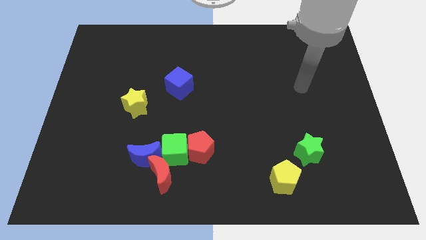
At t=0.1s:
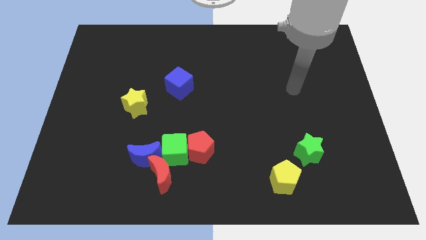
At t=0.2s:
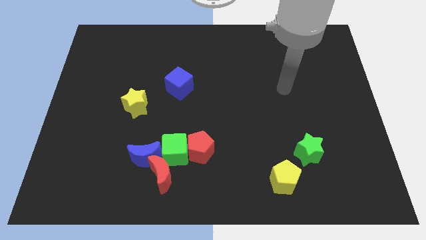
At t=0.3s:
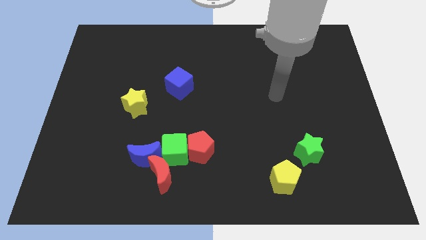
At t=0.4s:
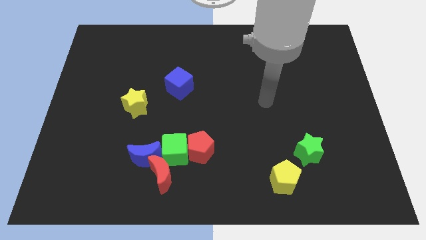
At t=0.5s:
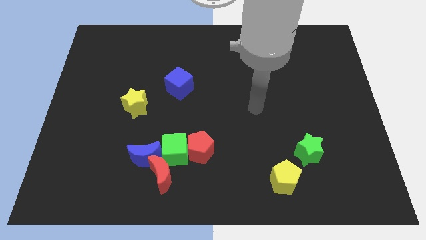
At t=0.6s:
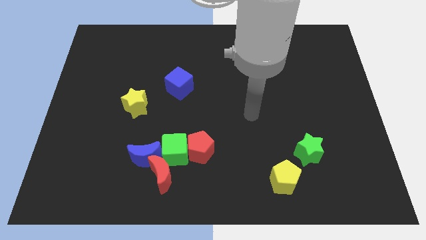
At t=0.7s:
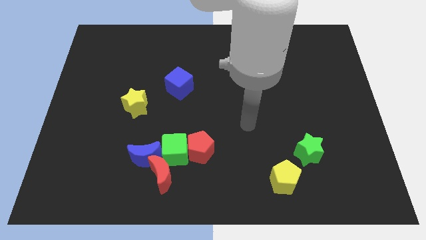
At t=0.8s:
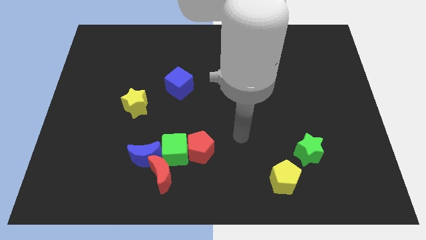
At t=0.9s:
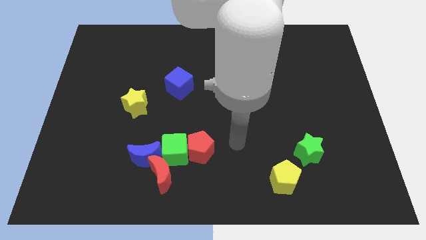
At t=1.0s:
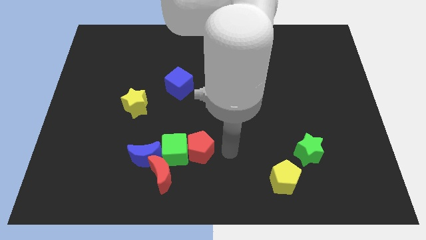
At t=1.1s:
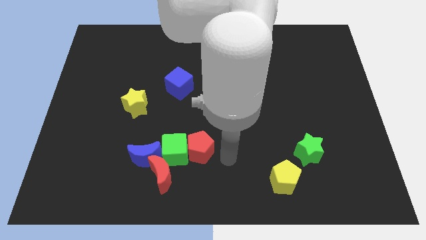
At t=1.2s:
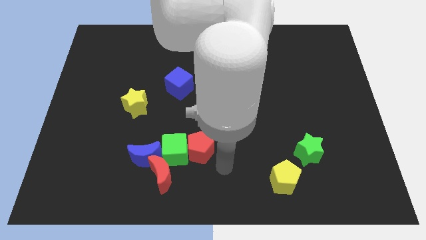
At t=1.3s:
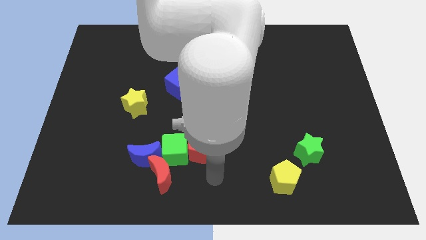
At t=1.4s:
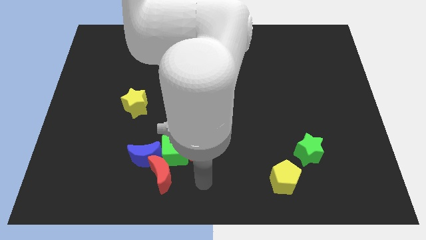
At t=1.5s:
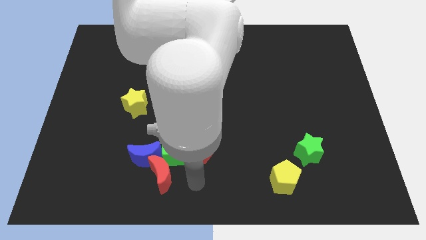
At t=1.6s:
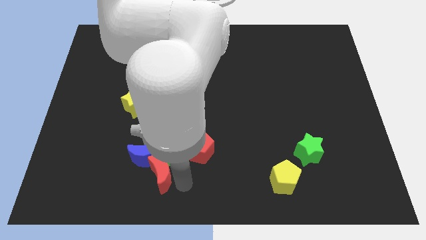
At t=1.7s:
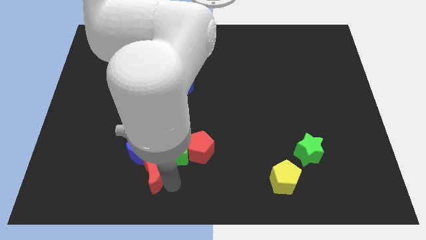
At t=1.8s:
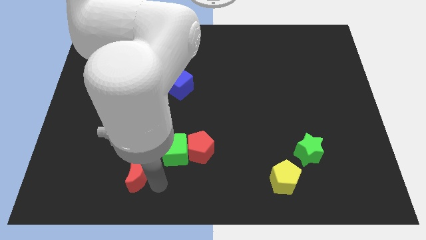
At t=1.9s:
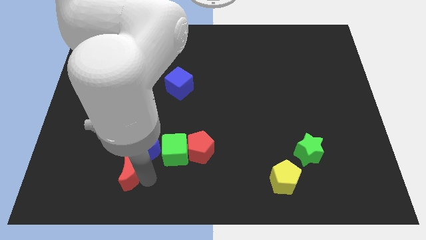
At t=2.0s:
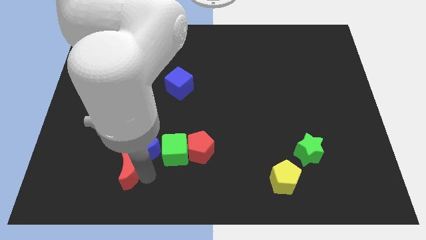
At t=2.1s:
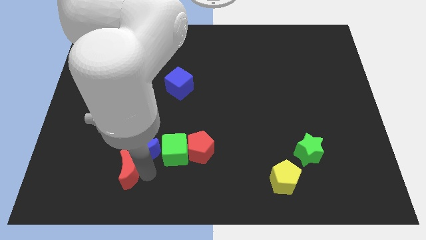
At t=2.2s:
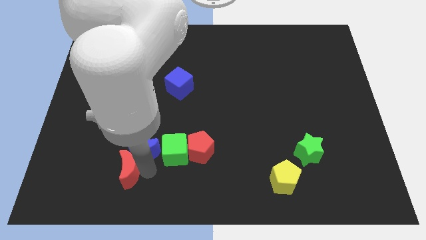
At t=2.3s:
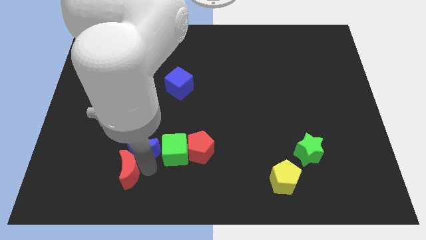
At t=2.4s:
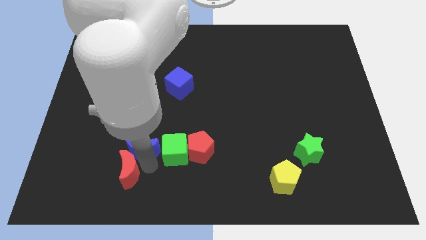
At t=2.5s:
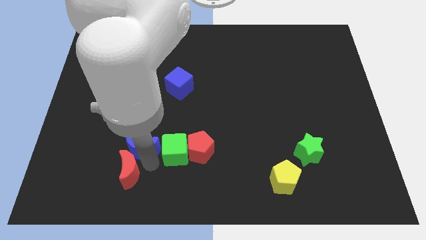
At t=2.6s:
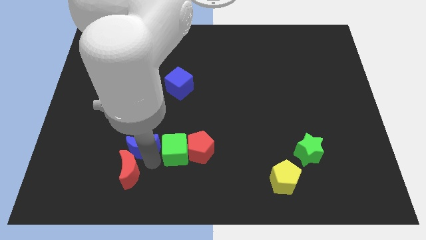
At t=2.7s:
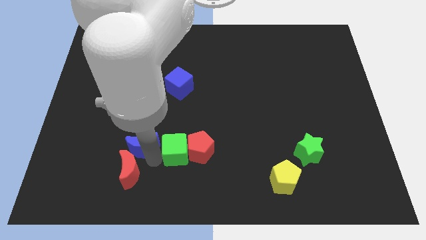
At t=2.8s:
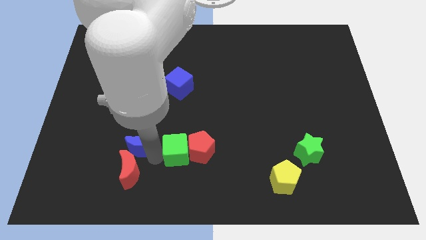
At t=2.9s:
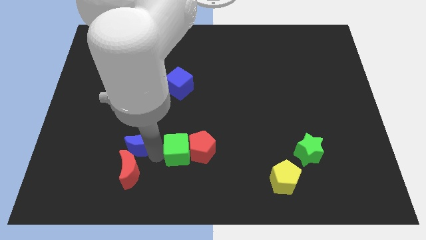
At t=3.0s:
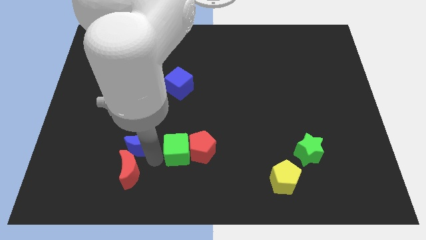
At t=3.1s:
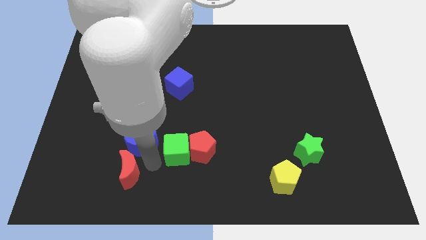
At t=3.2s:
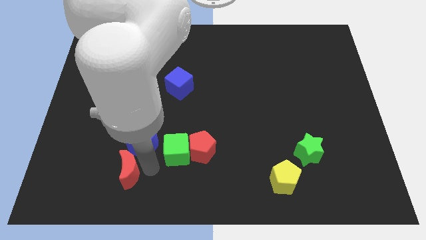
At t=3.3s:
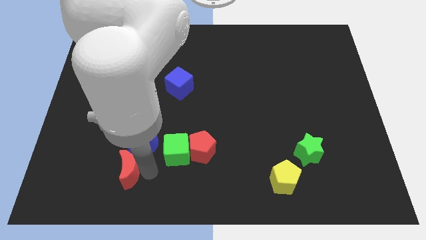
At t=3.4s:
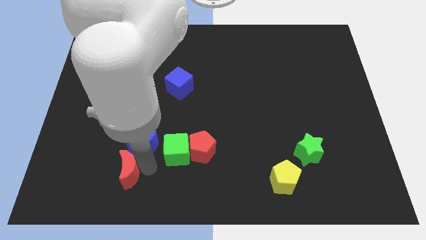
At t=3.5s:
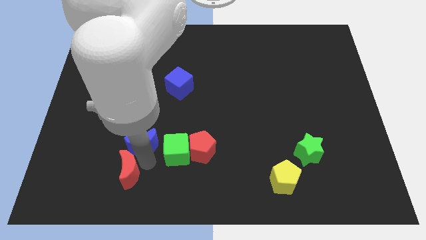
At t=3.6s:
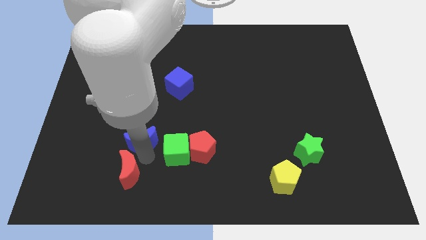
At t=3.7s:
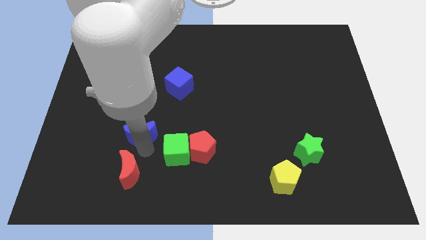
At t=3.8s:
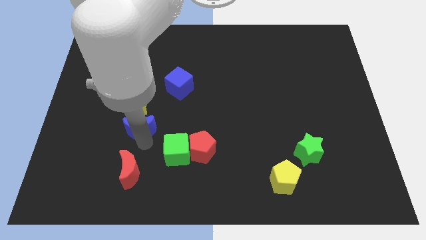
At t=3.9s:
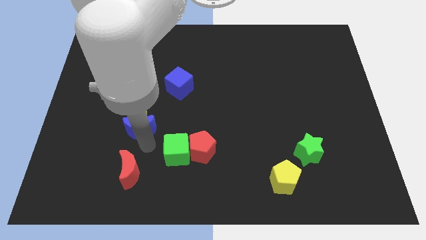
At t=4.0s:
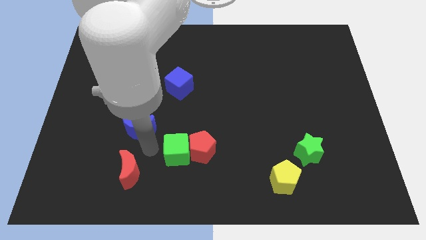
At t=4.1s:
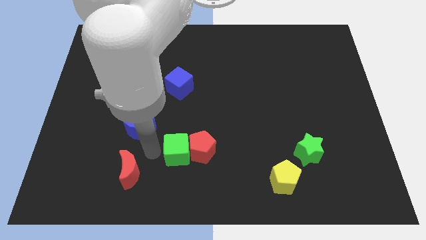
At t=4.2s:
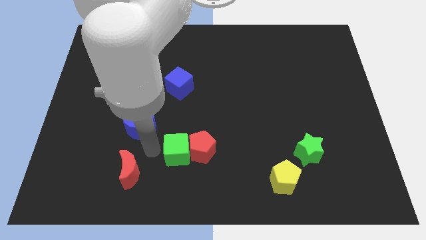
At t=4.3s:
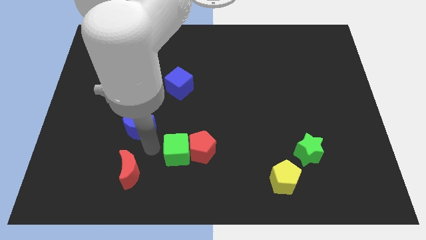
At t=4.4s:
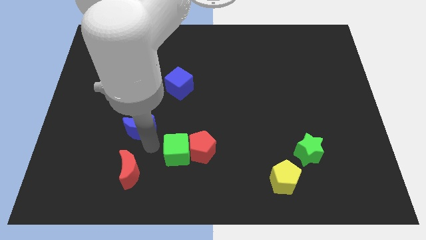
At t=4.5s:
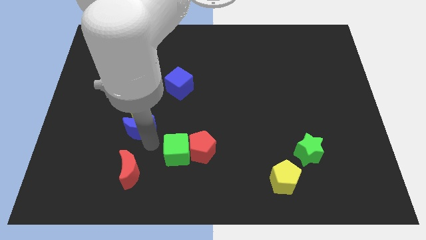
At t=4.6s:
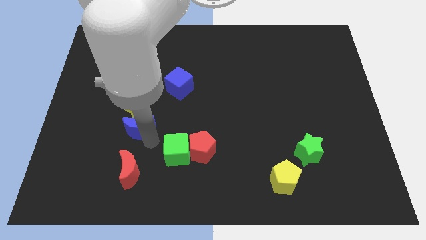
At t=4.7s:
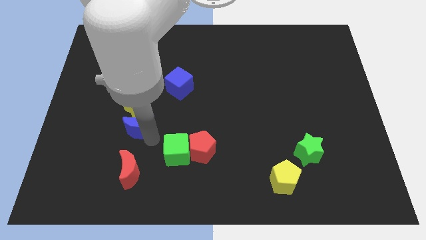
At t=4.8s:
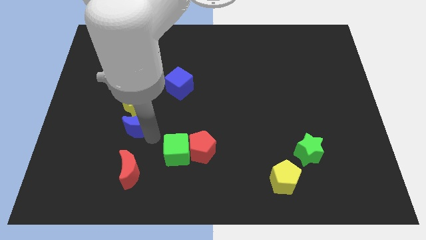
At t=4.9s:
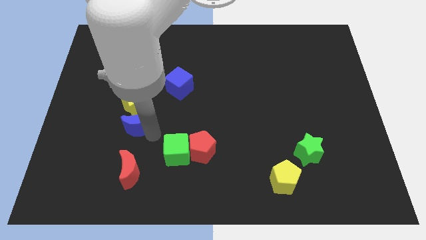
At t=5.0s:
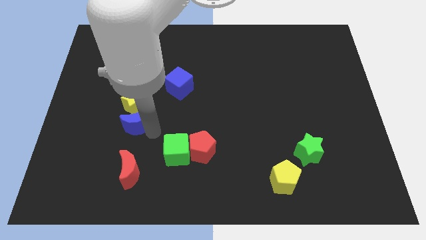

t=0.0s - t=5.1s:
move the blue moon to the yellow star

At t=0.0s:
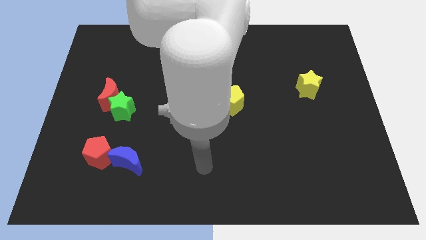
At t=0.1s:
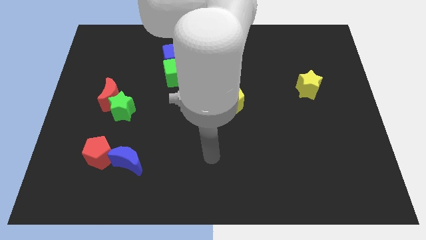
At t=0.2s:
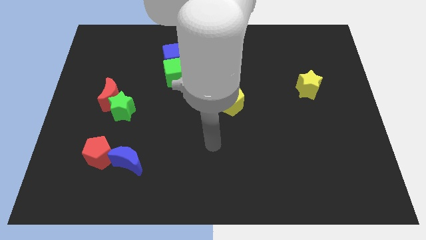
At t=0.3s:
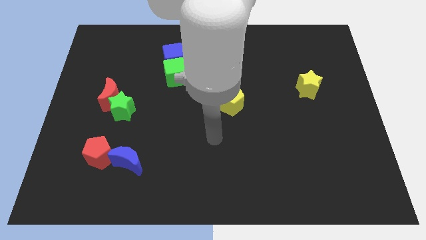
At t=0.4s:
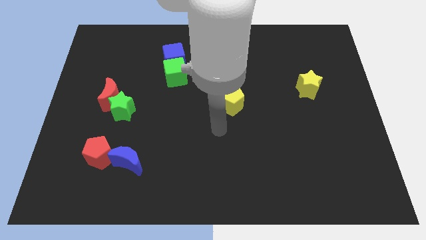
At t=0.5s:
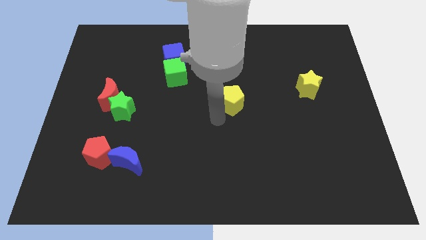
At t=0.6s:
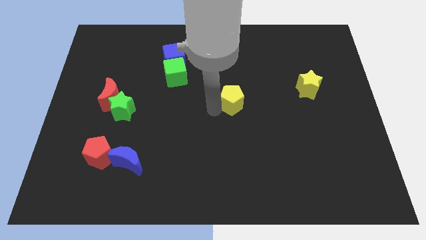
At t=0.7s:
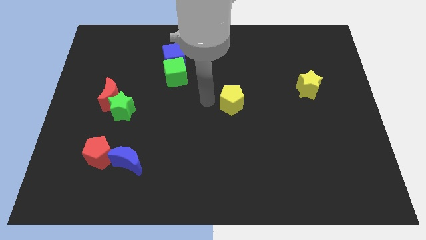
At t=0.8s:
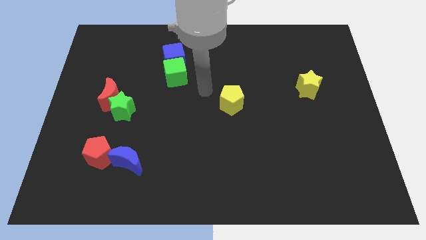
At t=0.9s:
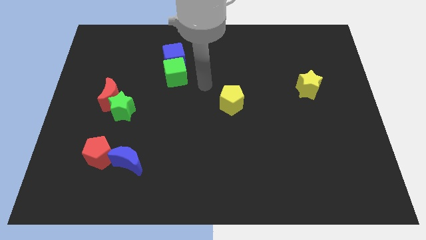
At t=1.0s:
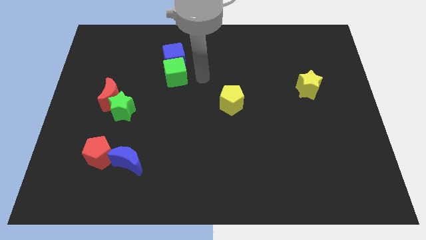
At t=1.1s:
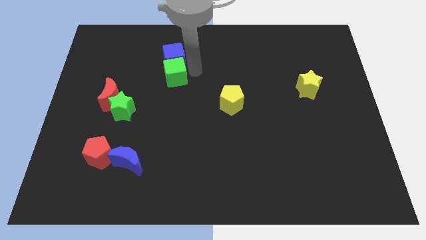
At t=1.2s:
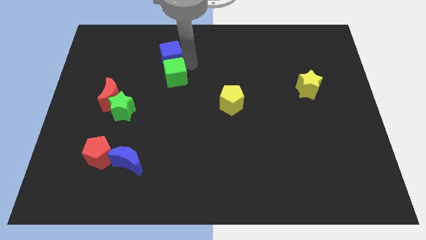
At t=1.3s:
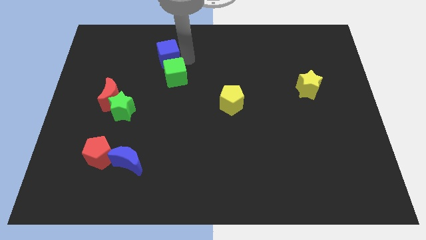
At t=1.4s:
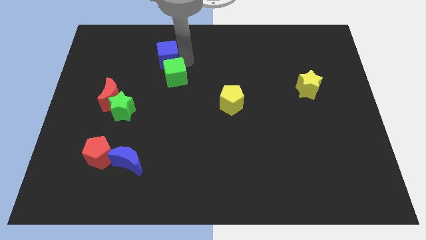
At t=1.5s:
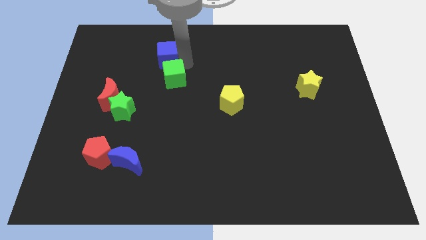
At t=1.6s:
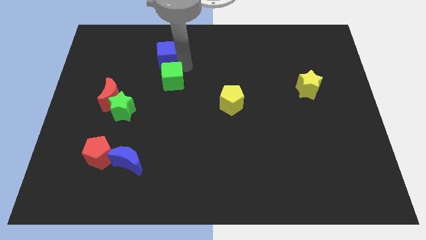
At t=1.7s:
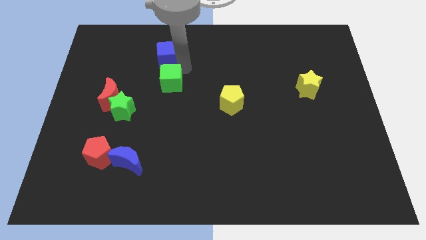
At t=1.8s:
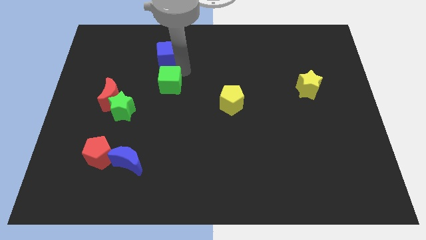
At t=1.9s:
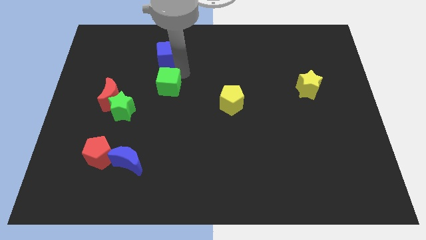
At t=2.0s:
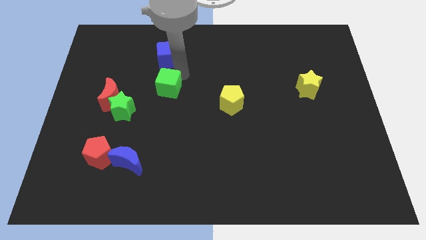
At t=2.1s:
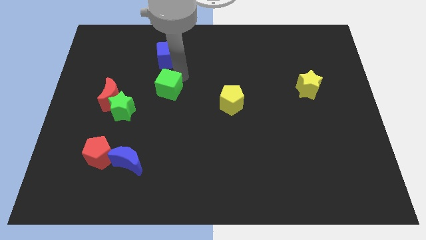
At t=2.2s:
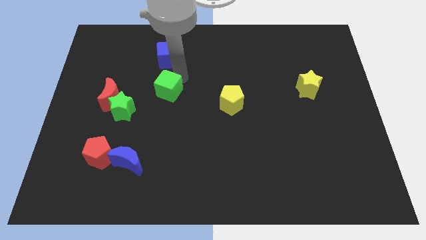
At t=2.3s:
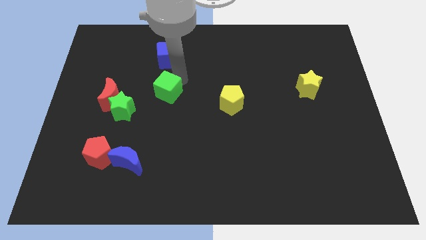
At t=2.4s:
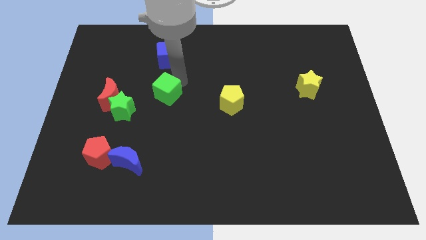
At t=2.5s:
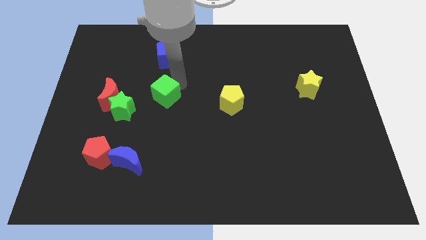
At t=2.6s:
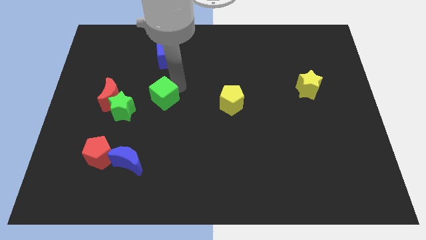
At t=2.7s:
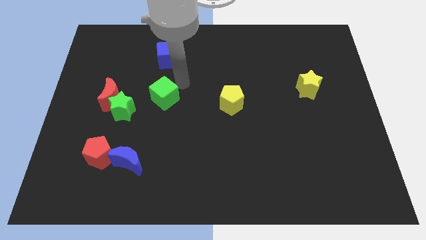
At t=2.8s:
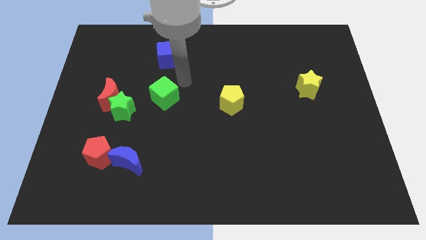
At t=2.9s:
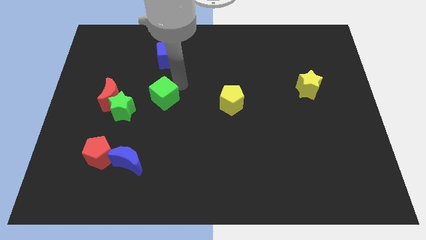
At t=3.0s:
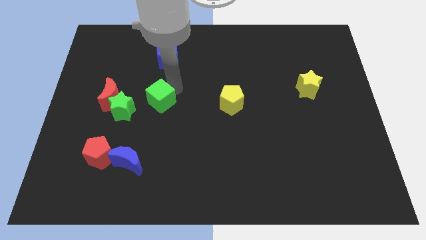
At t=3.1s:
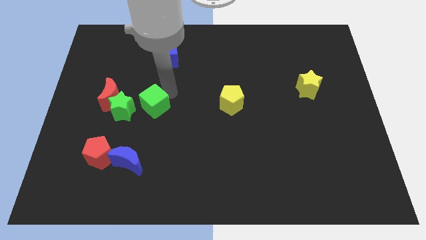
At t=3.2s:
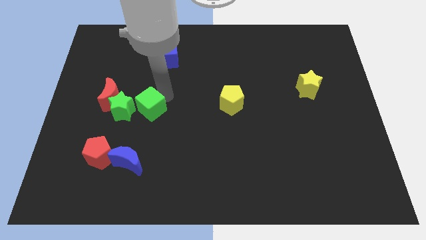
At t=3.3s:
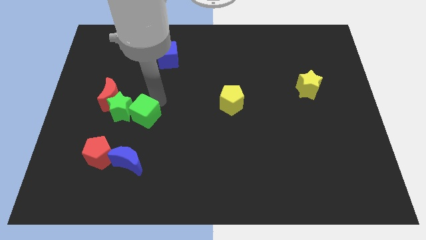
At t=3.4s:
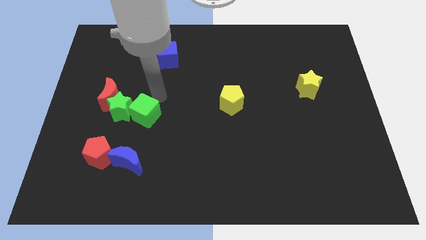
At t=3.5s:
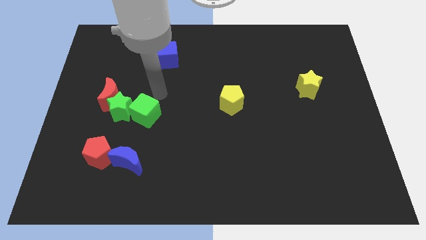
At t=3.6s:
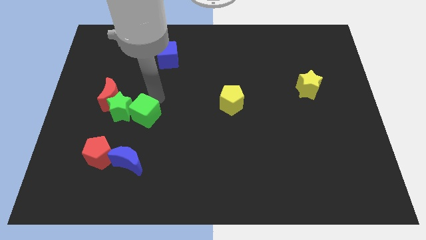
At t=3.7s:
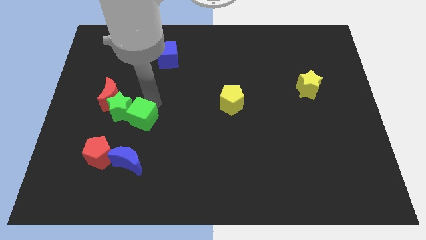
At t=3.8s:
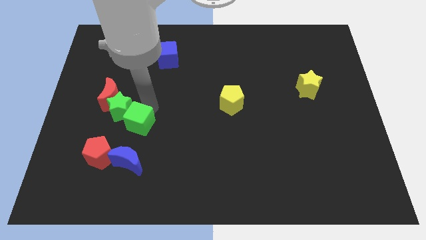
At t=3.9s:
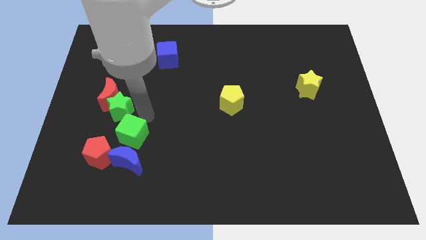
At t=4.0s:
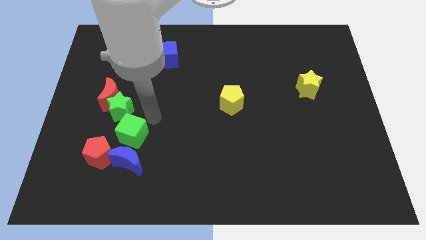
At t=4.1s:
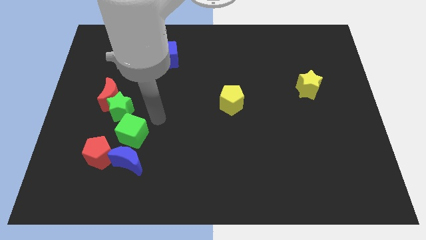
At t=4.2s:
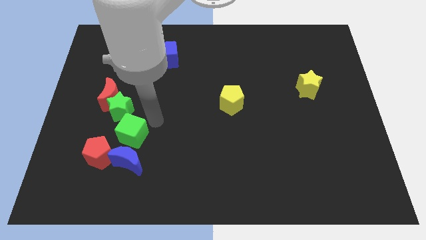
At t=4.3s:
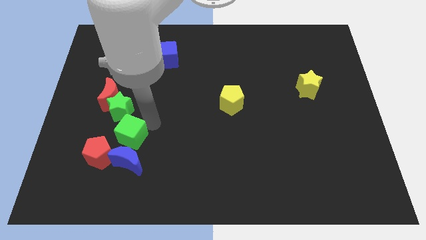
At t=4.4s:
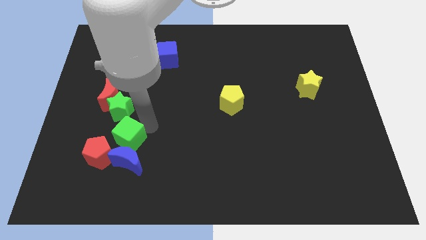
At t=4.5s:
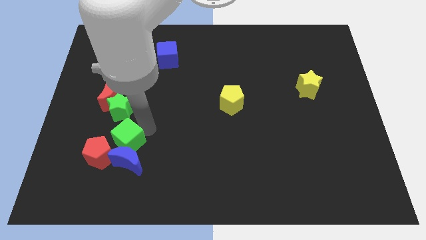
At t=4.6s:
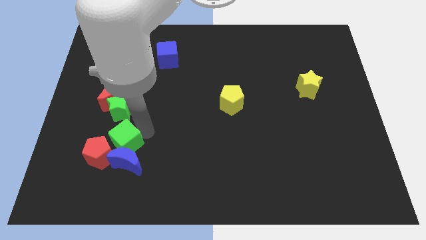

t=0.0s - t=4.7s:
push the green cube to the red pentagon
